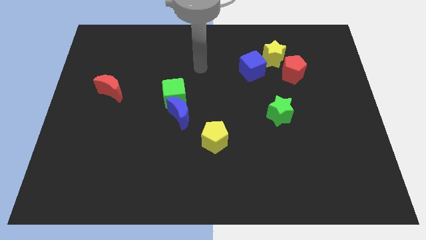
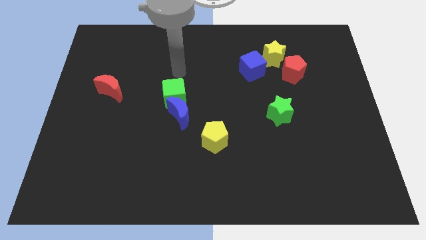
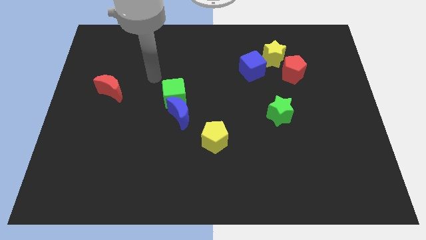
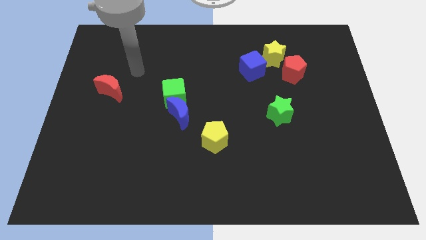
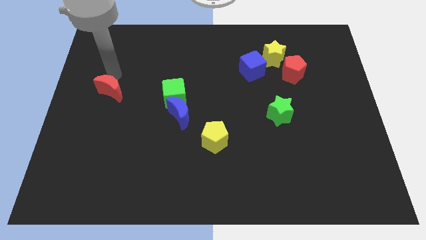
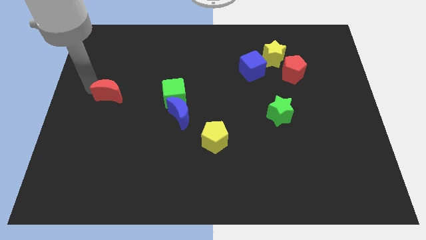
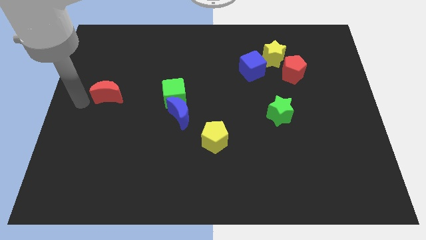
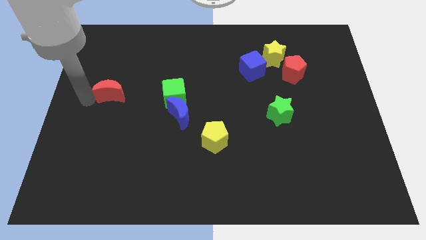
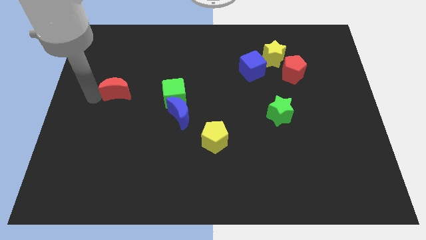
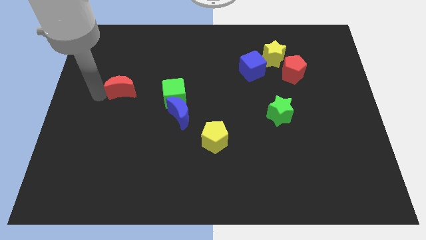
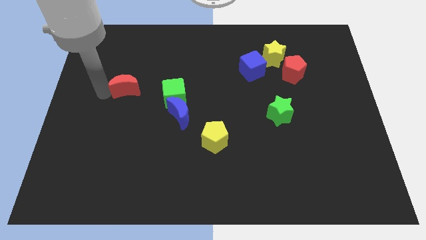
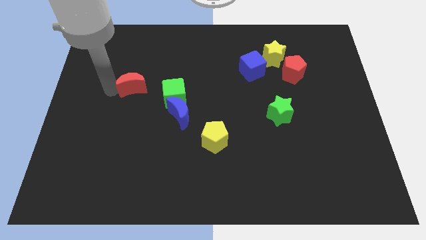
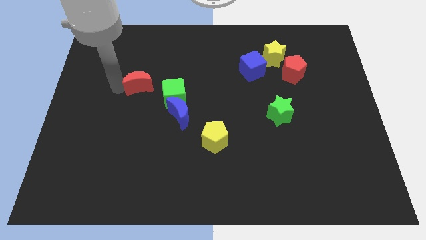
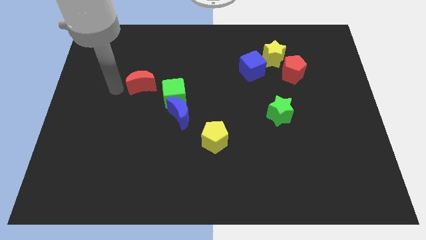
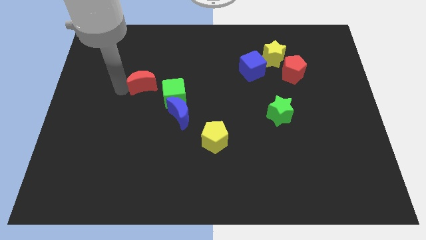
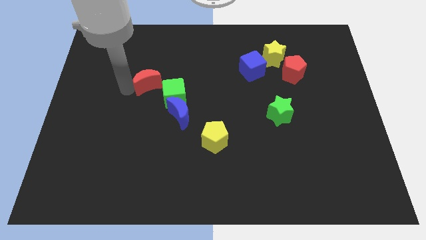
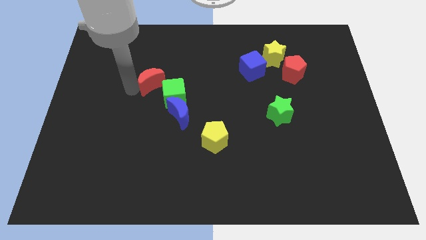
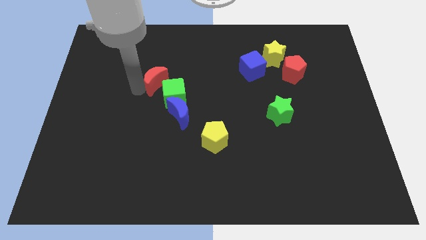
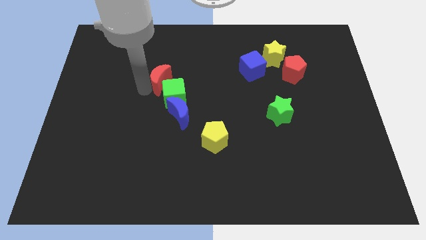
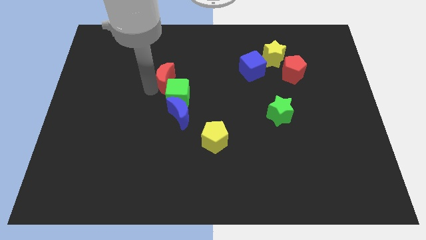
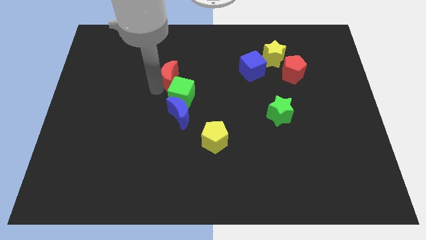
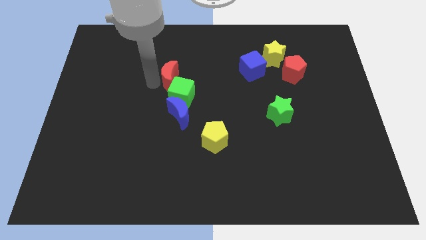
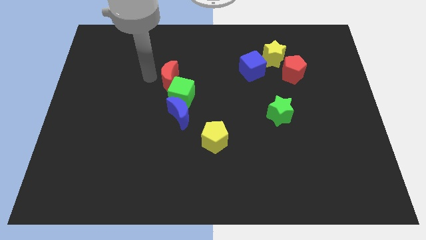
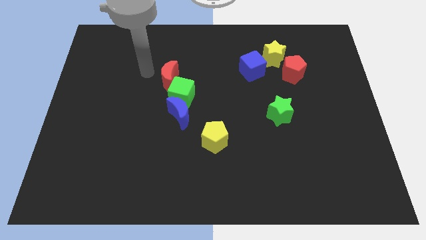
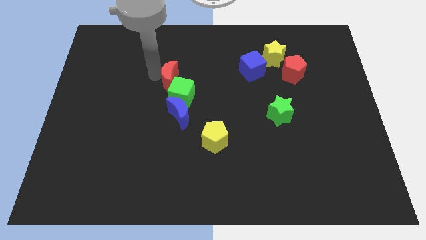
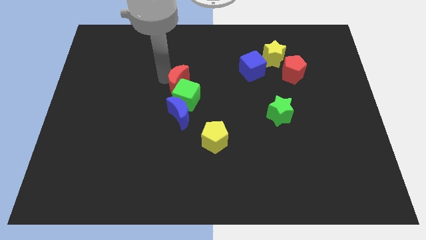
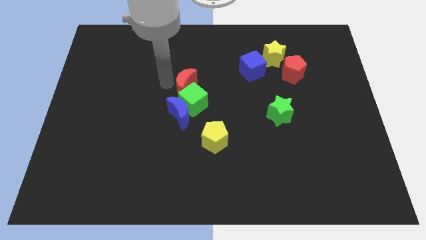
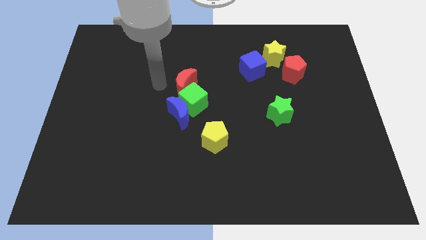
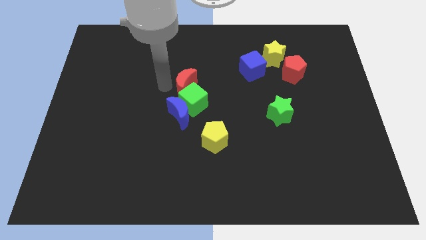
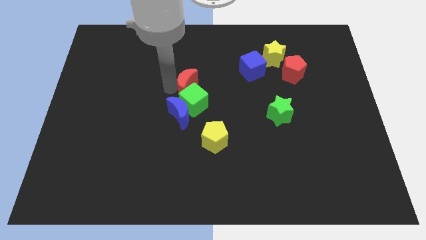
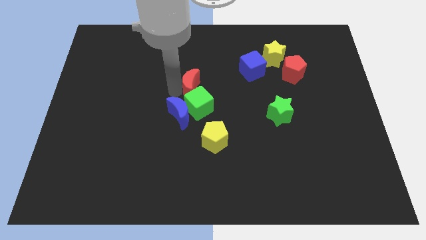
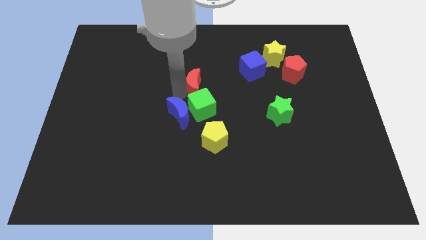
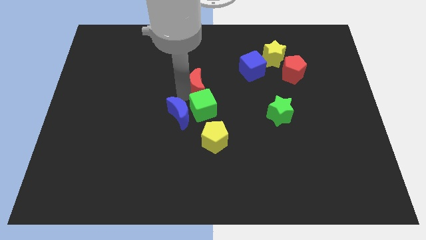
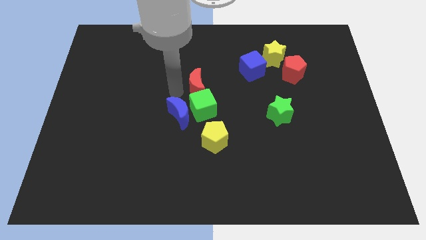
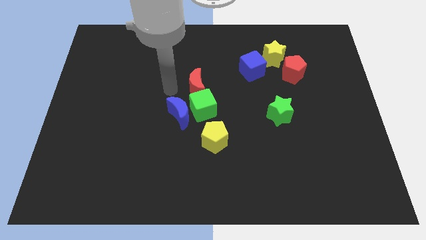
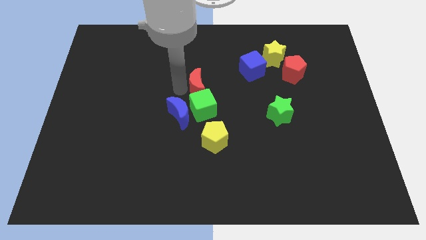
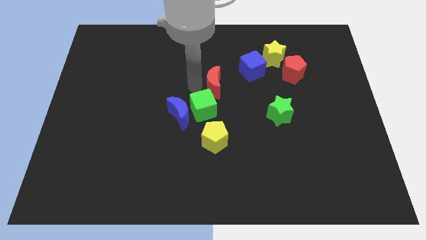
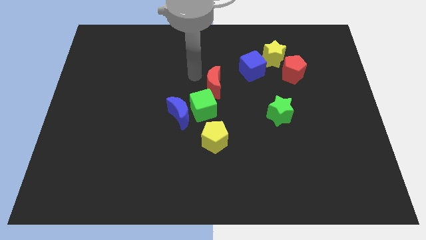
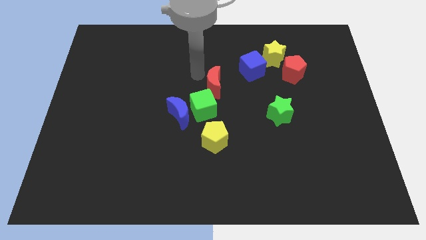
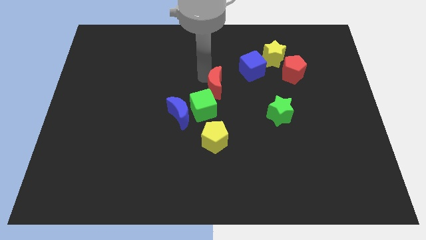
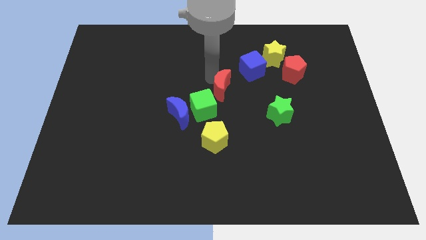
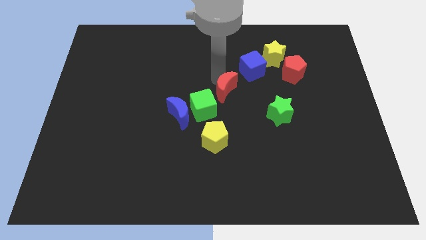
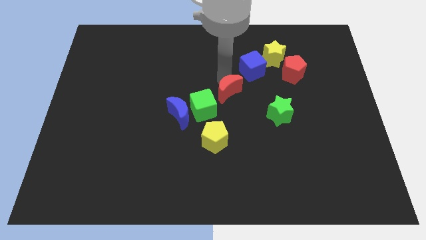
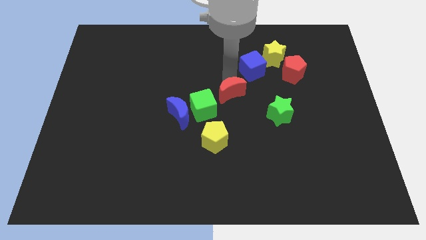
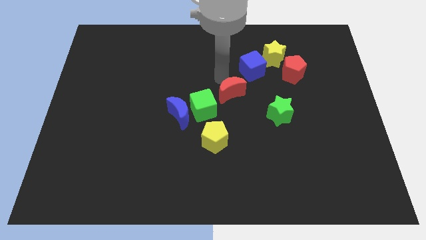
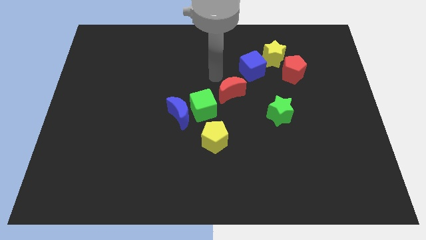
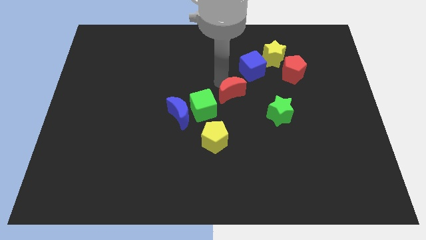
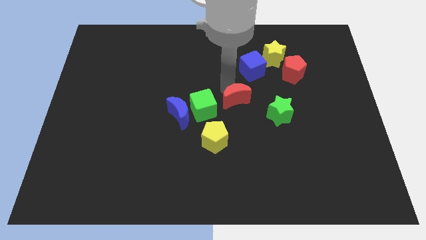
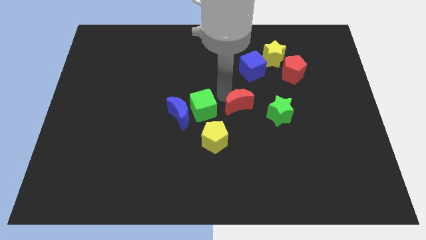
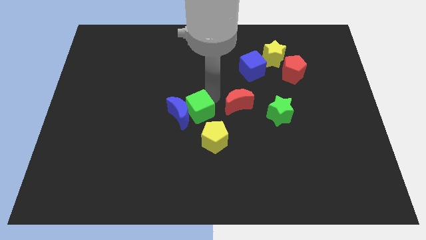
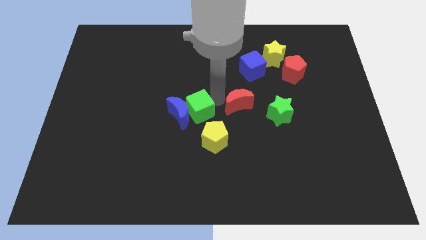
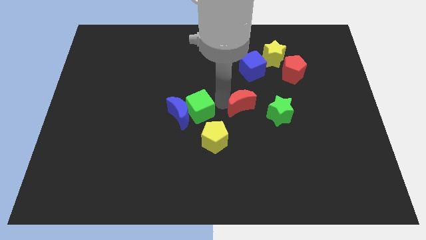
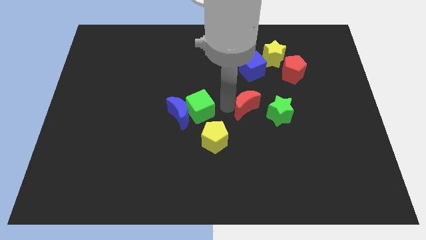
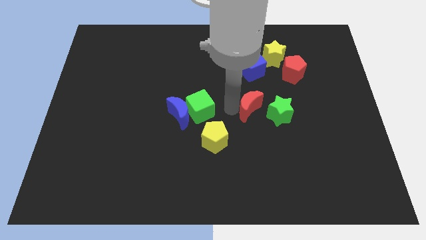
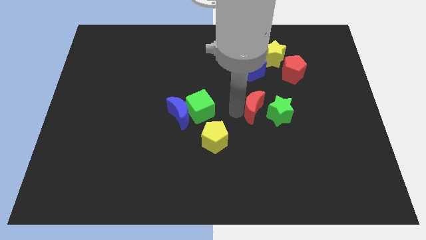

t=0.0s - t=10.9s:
slide the red moon close to the green star

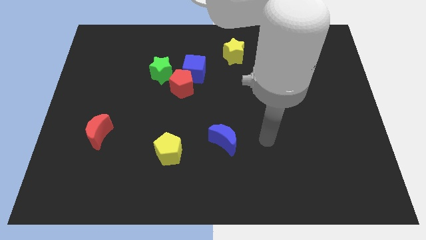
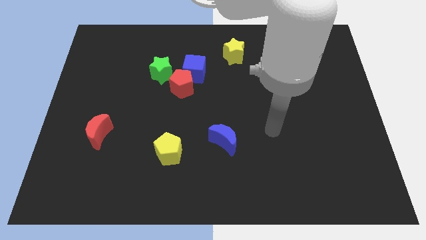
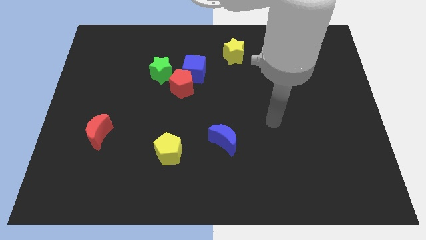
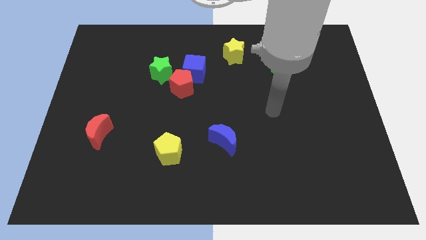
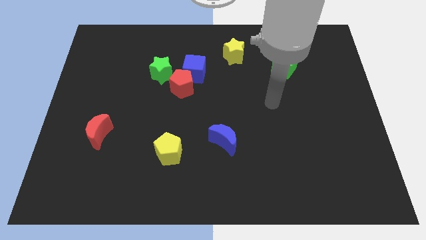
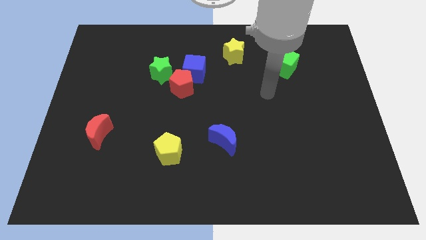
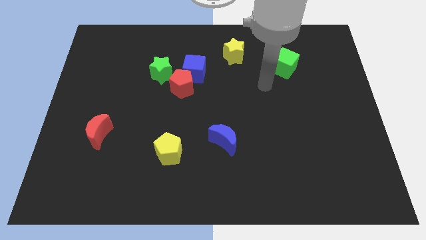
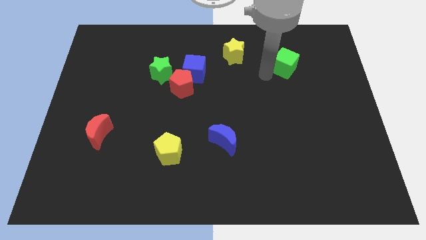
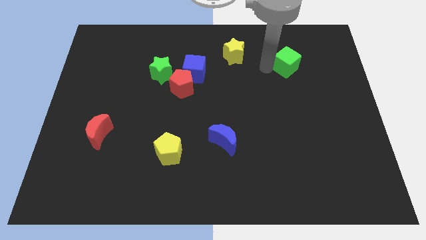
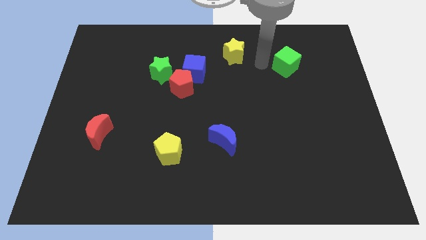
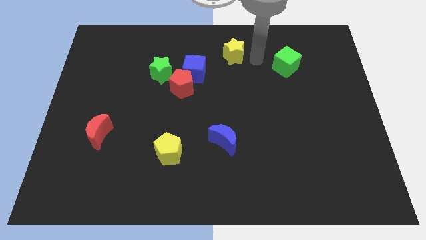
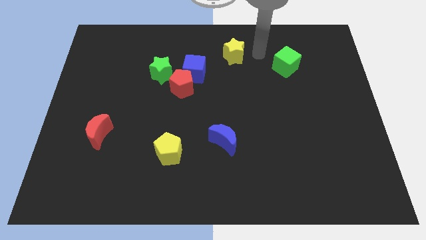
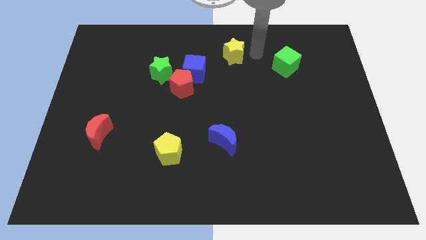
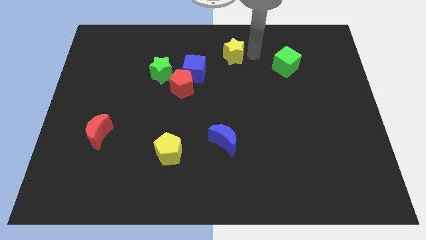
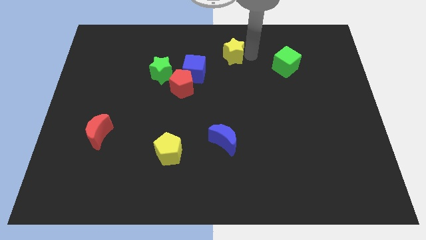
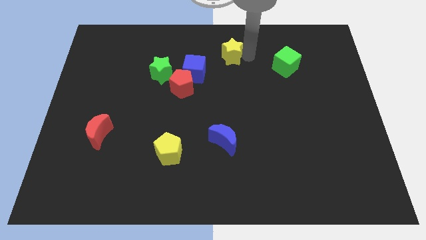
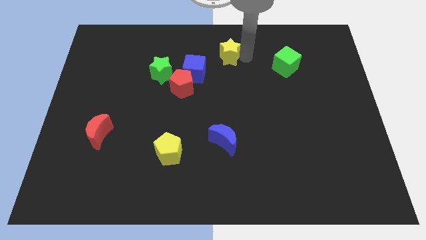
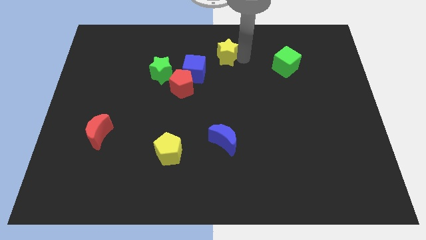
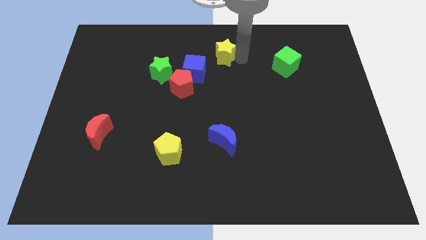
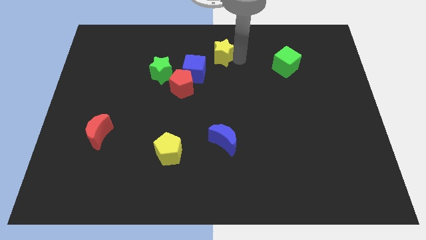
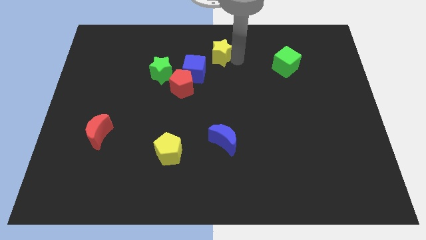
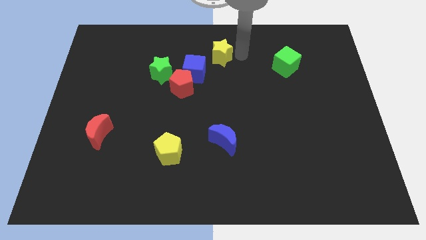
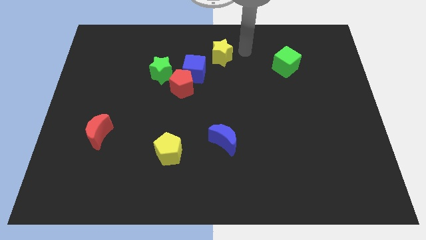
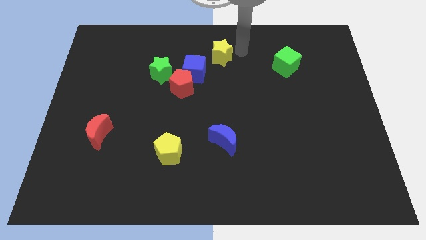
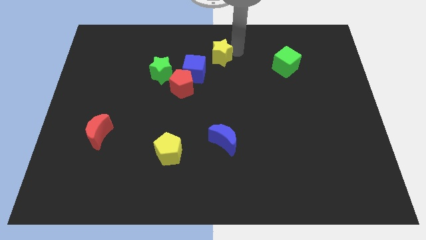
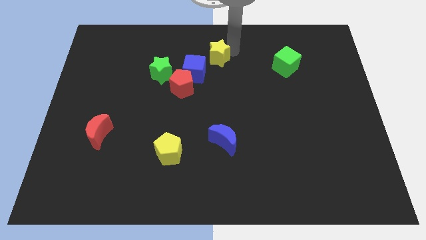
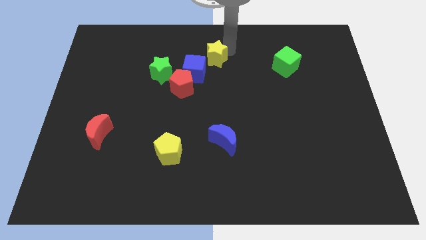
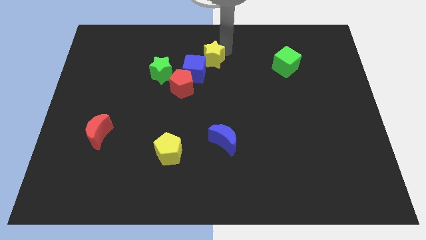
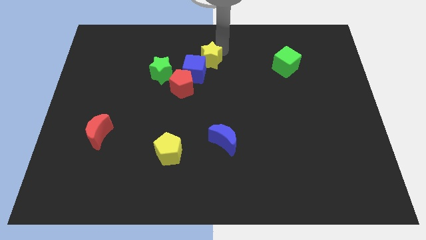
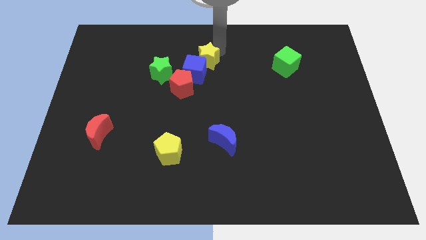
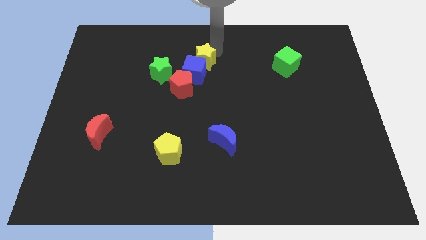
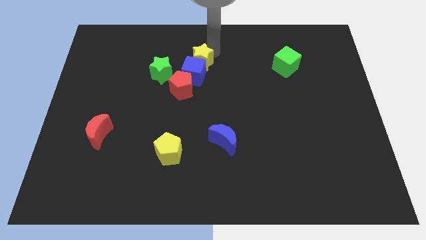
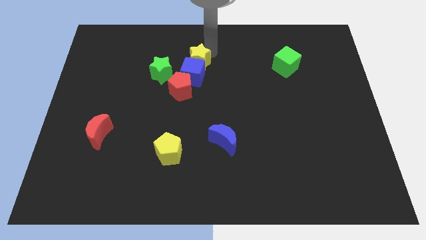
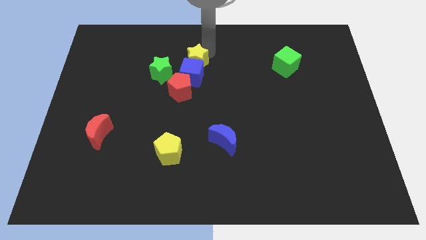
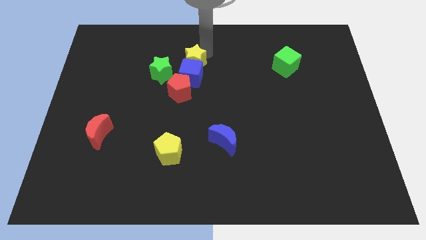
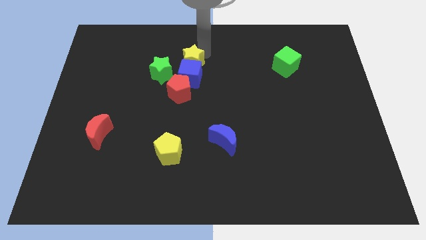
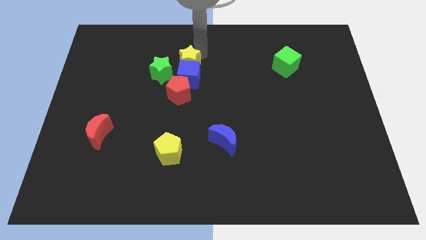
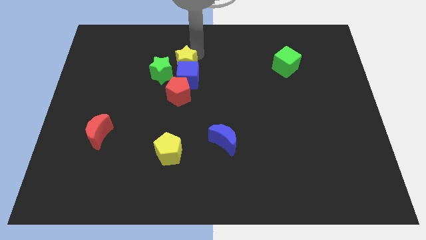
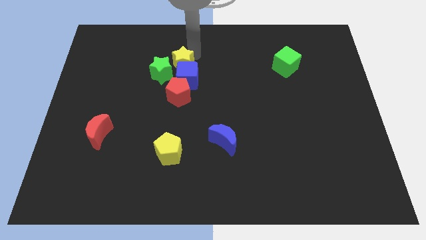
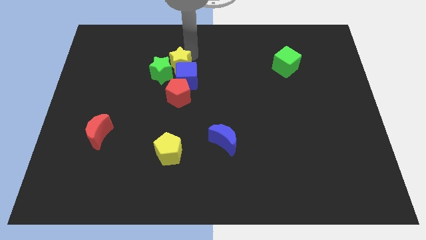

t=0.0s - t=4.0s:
slide the yellow star towards the green star
